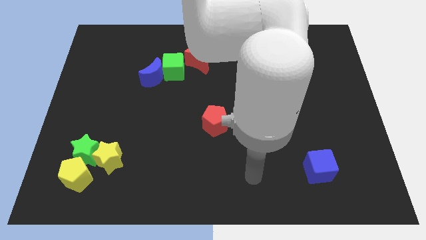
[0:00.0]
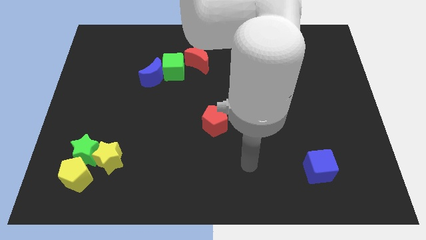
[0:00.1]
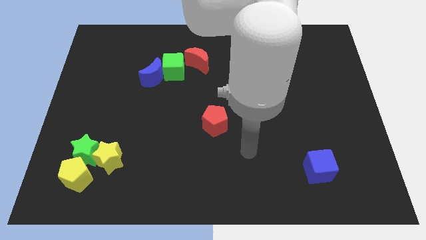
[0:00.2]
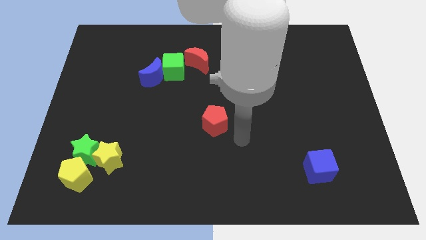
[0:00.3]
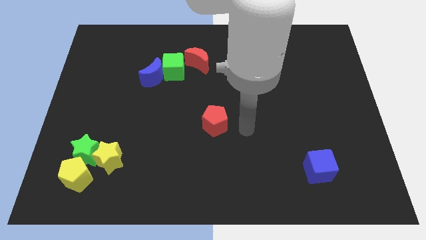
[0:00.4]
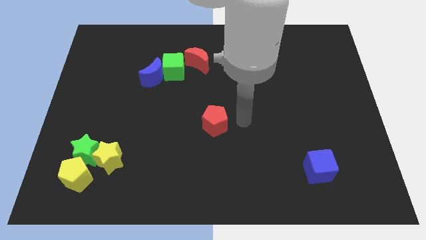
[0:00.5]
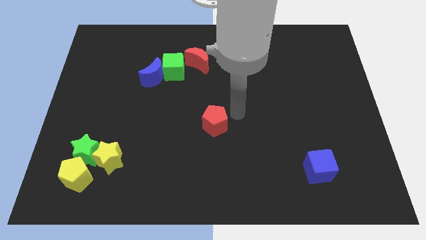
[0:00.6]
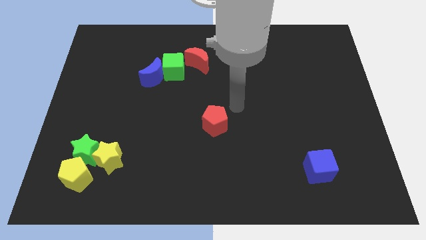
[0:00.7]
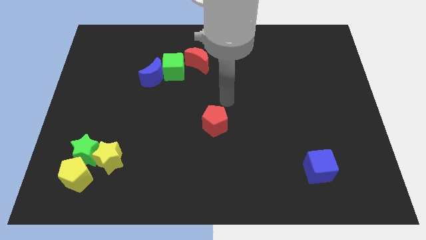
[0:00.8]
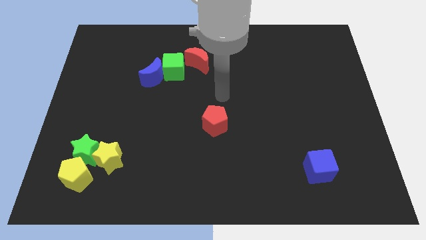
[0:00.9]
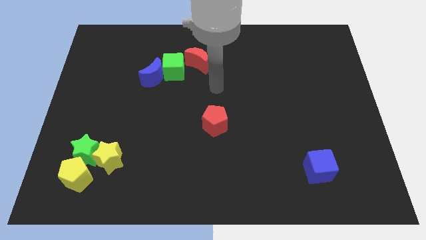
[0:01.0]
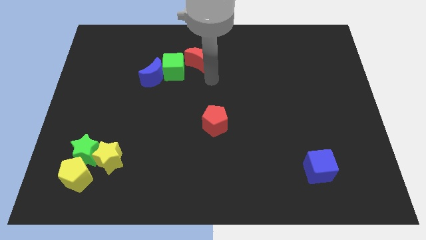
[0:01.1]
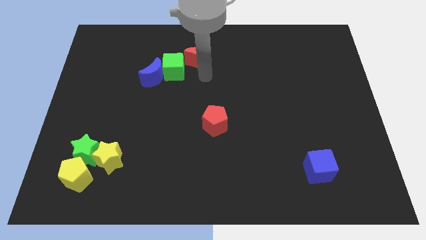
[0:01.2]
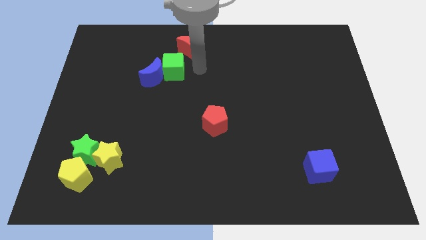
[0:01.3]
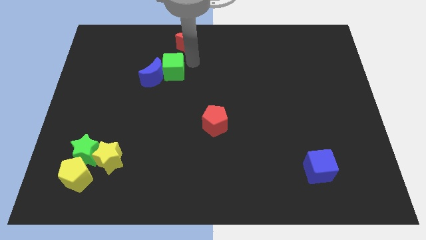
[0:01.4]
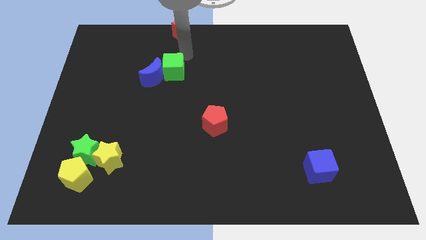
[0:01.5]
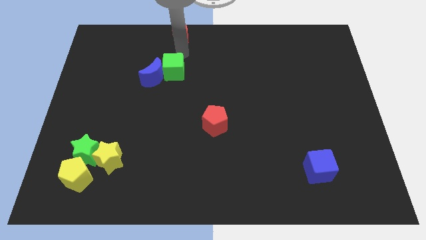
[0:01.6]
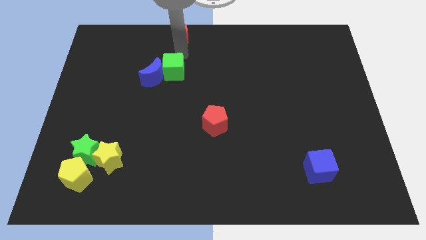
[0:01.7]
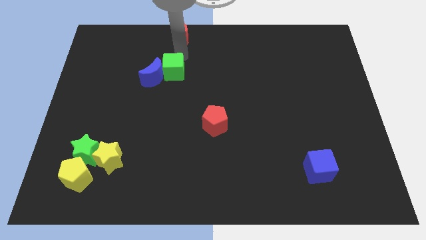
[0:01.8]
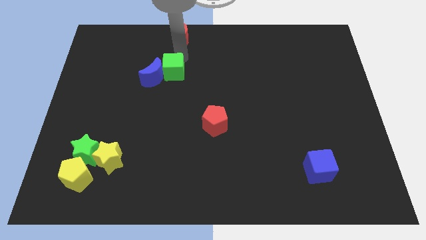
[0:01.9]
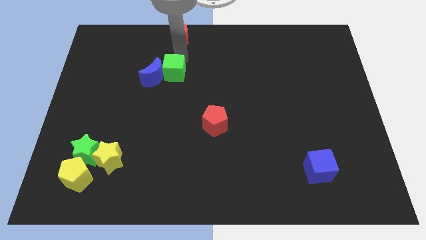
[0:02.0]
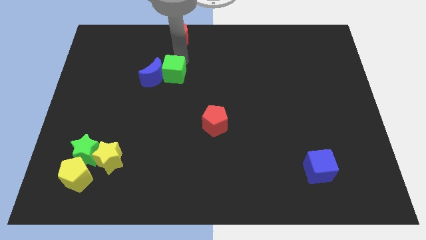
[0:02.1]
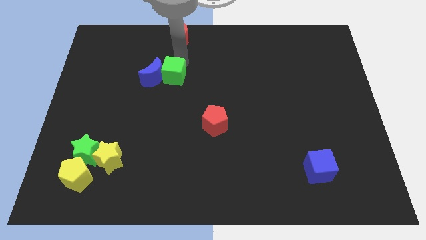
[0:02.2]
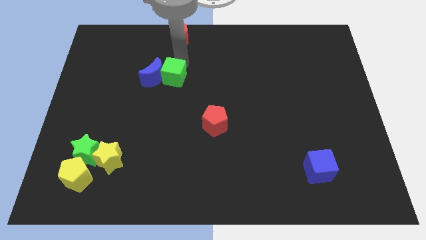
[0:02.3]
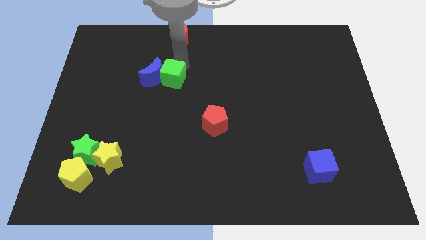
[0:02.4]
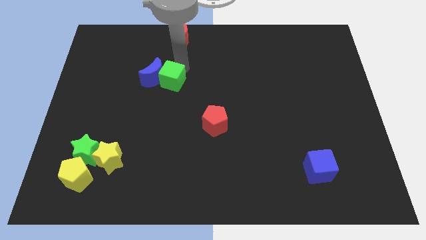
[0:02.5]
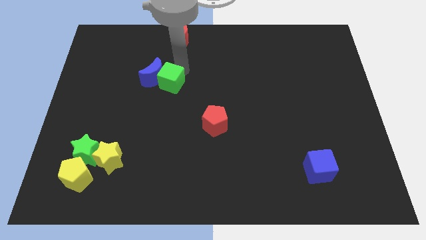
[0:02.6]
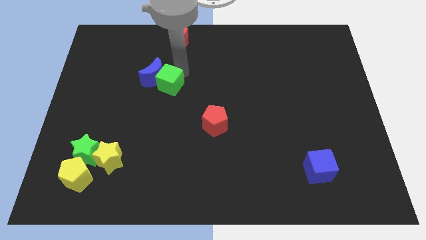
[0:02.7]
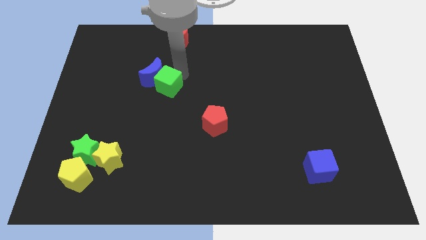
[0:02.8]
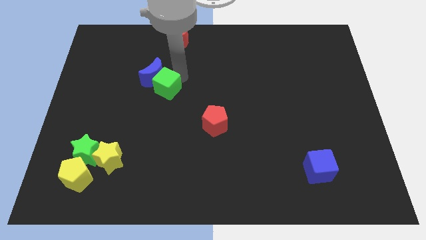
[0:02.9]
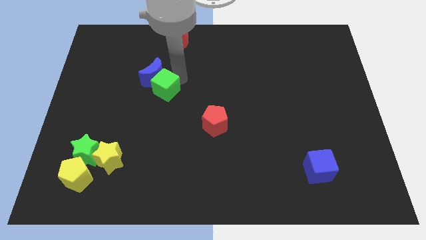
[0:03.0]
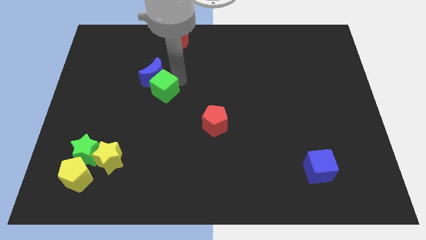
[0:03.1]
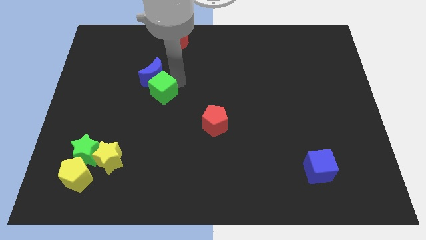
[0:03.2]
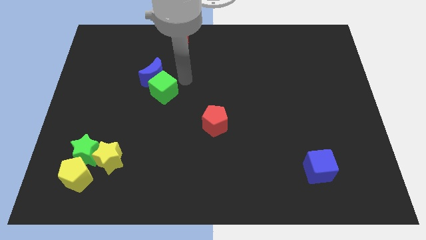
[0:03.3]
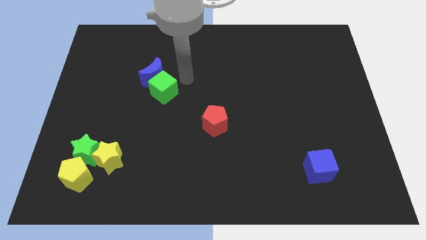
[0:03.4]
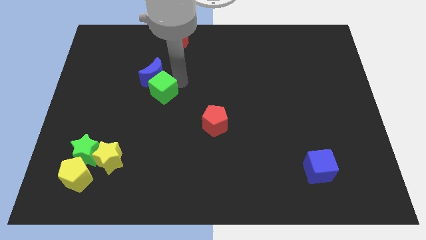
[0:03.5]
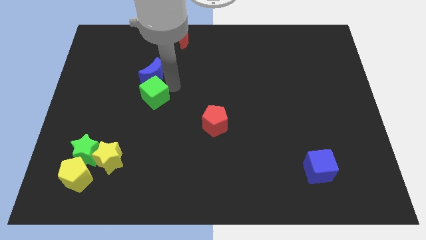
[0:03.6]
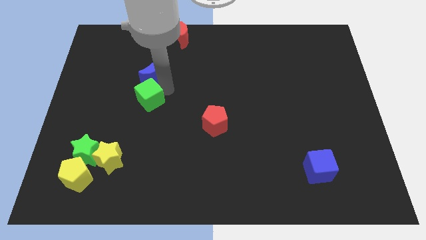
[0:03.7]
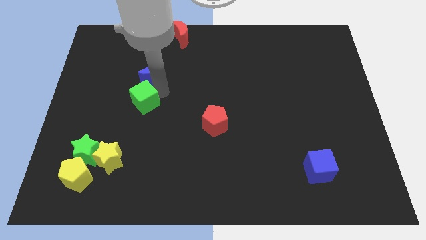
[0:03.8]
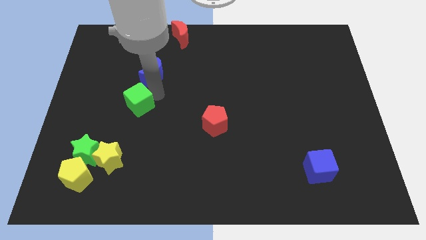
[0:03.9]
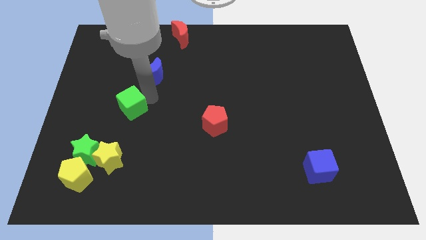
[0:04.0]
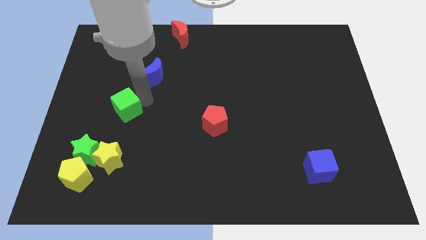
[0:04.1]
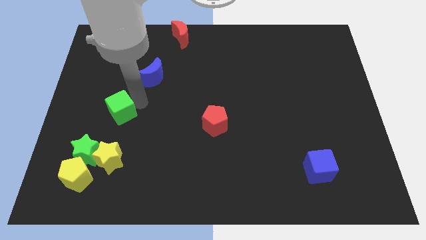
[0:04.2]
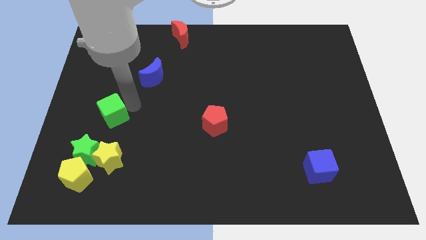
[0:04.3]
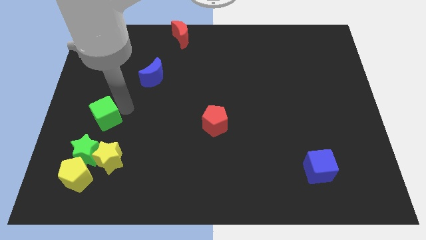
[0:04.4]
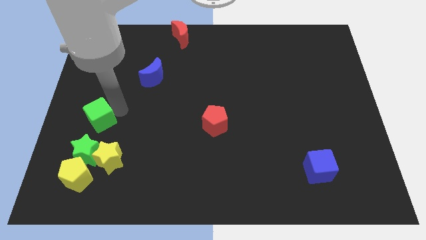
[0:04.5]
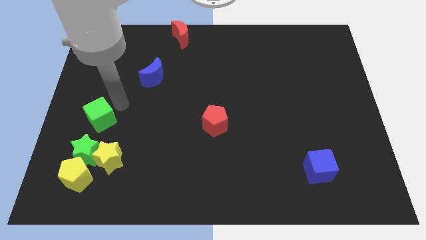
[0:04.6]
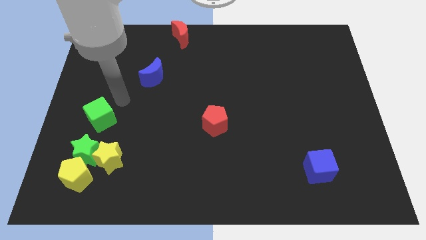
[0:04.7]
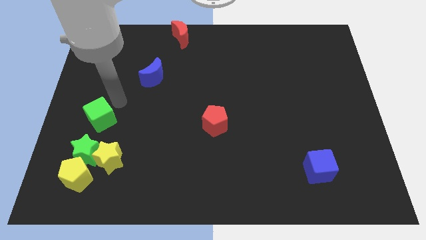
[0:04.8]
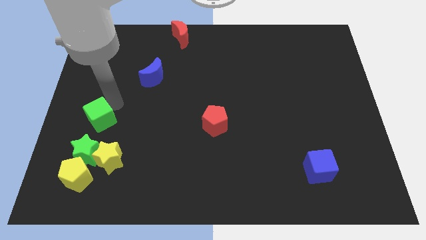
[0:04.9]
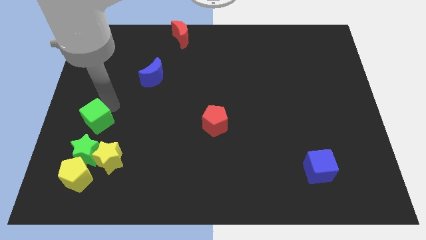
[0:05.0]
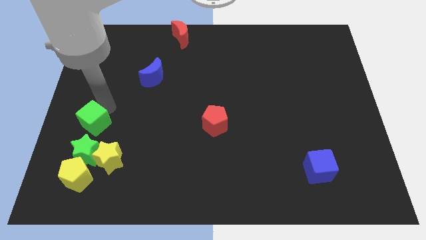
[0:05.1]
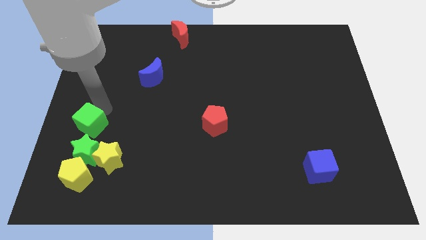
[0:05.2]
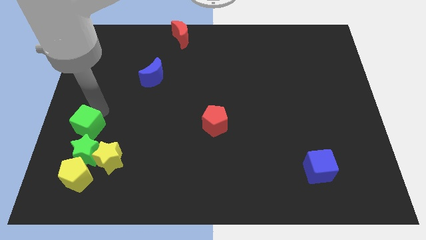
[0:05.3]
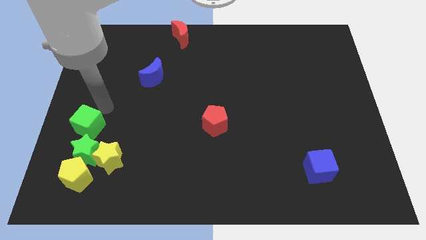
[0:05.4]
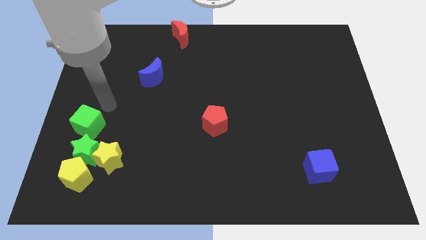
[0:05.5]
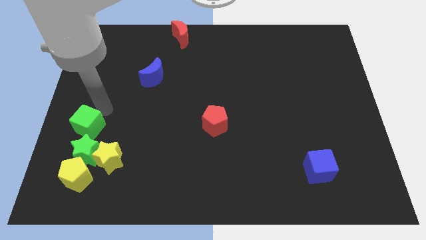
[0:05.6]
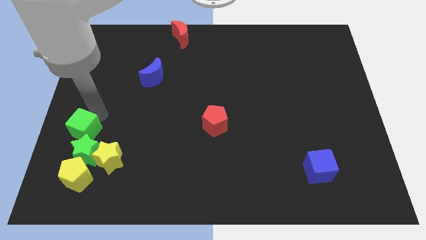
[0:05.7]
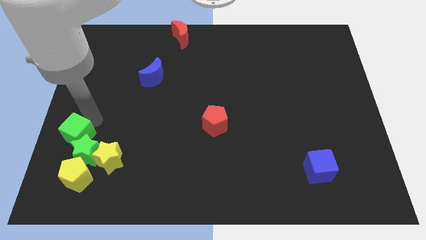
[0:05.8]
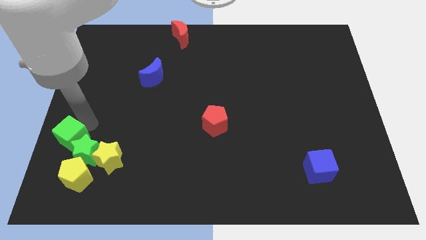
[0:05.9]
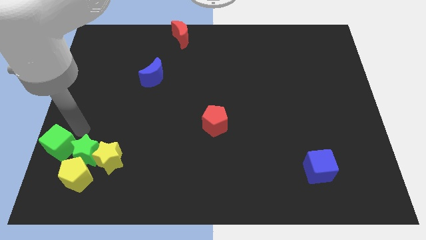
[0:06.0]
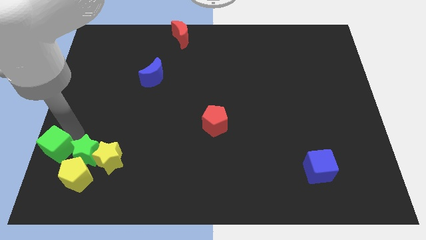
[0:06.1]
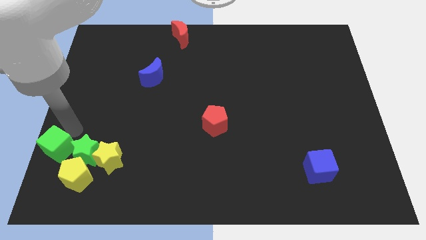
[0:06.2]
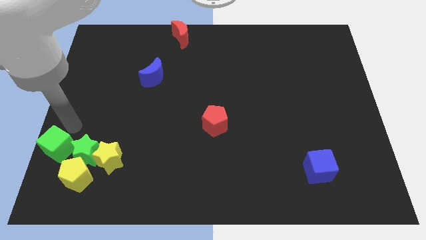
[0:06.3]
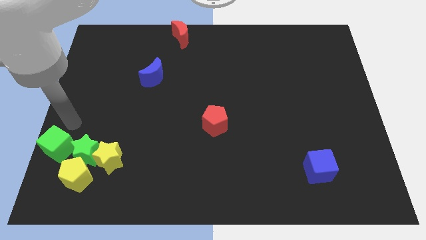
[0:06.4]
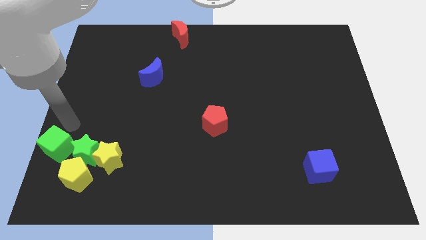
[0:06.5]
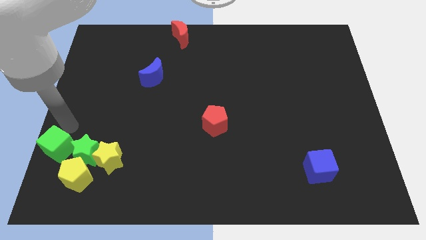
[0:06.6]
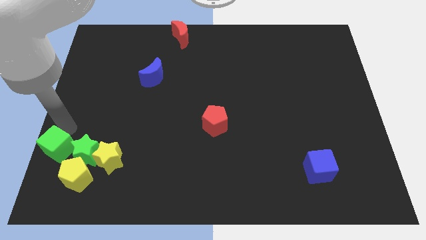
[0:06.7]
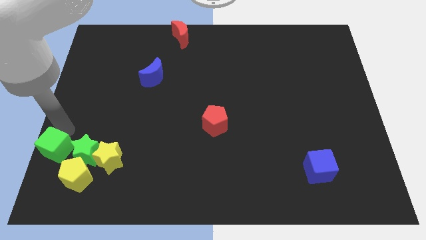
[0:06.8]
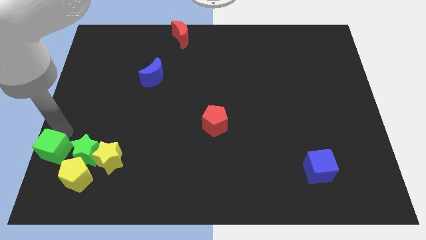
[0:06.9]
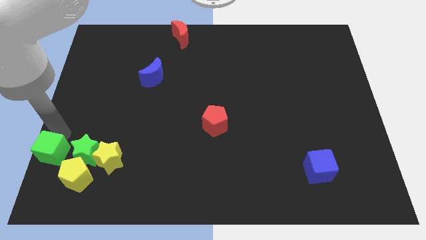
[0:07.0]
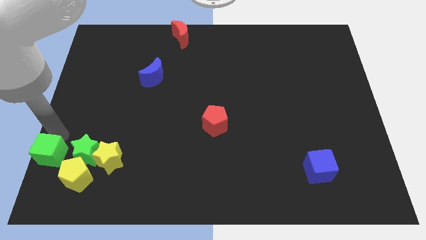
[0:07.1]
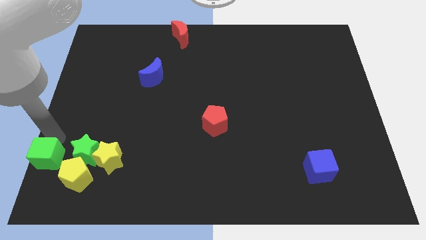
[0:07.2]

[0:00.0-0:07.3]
move the green cube to the bottom left
